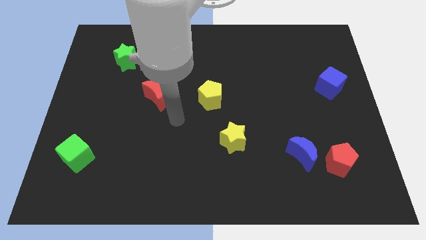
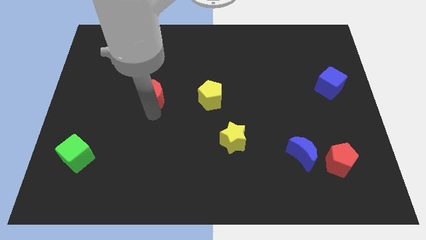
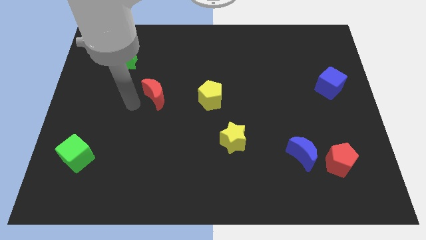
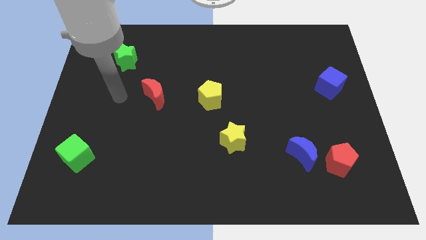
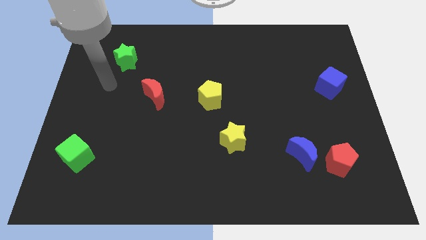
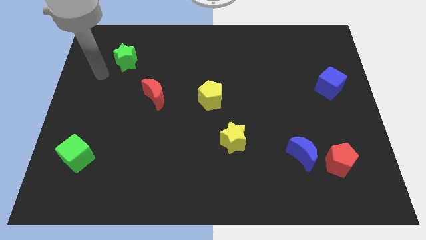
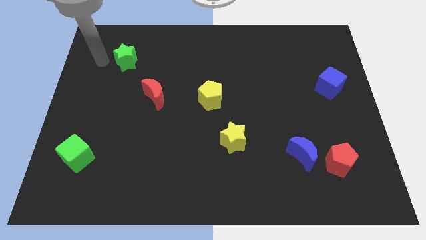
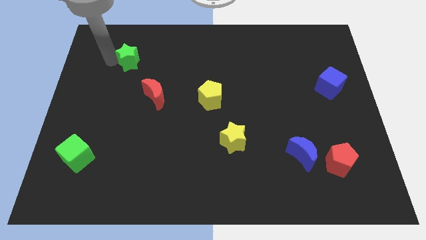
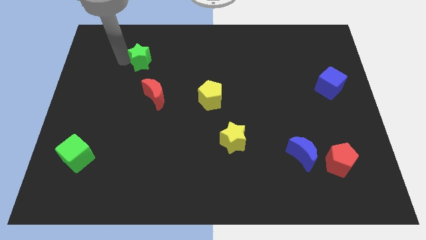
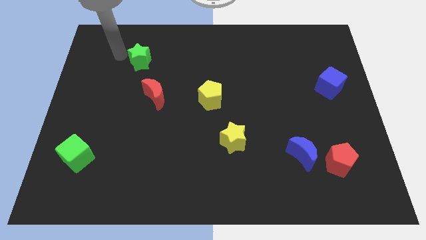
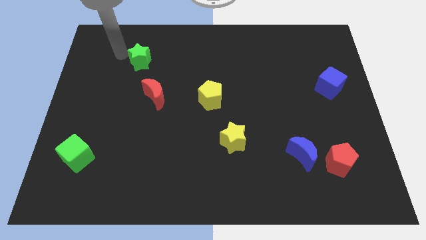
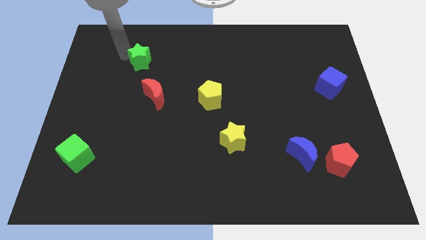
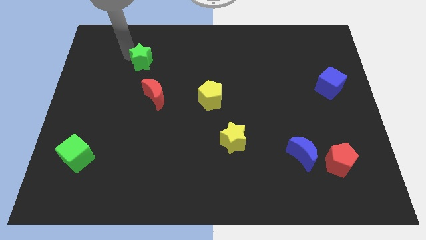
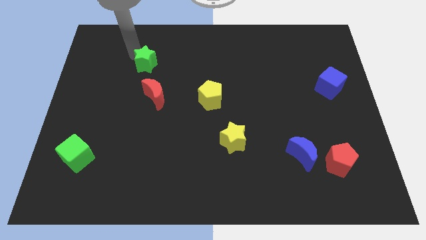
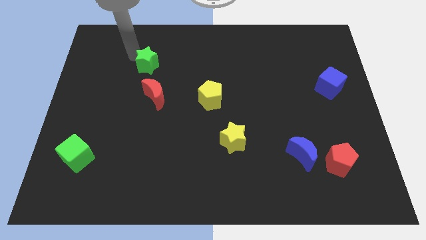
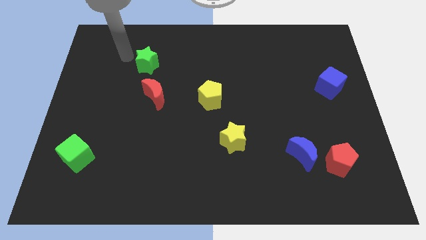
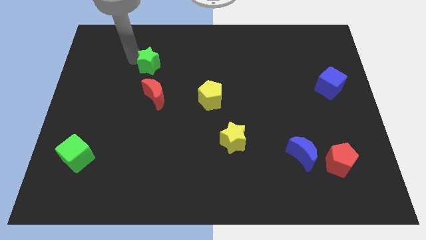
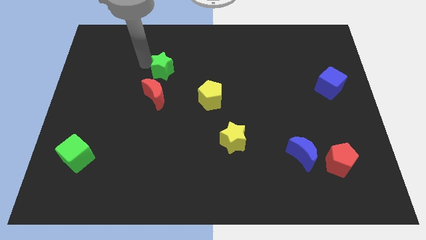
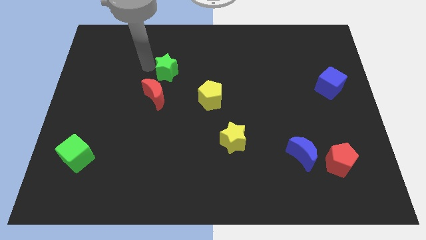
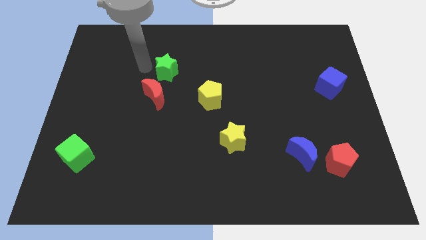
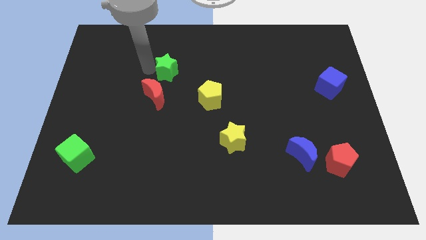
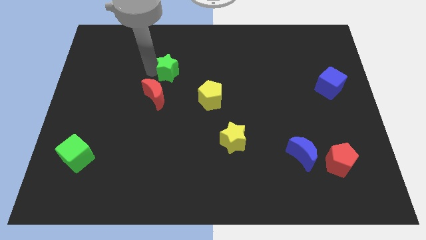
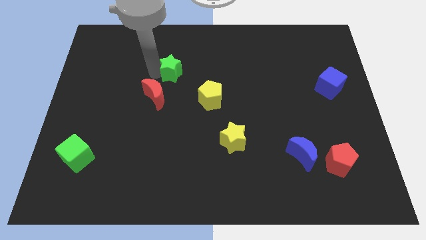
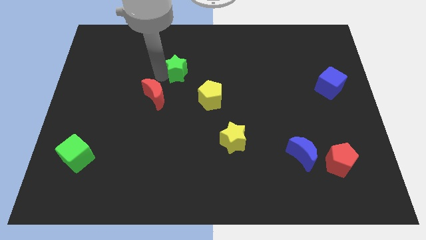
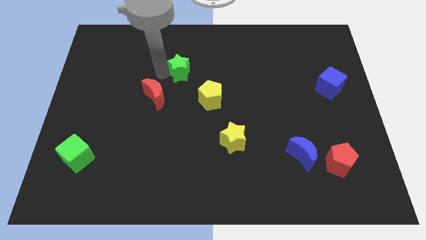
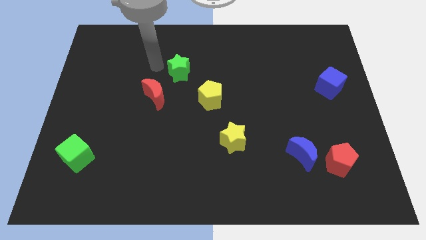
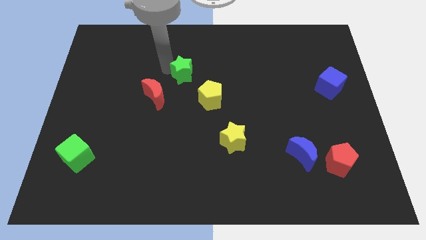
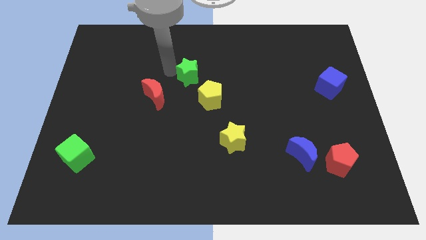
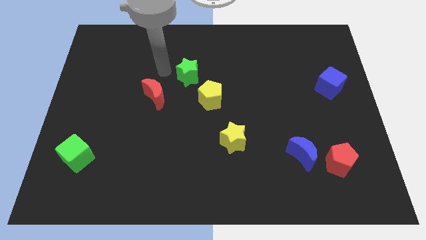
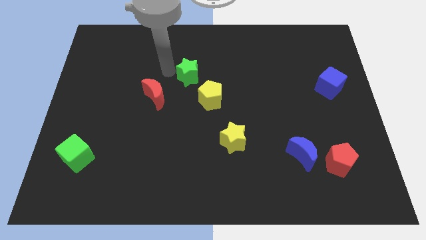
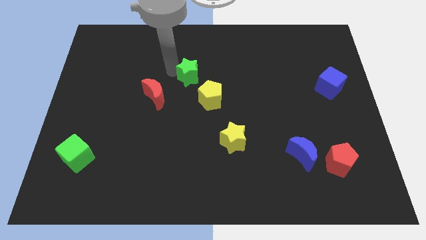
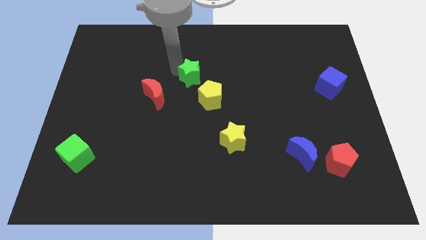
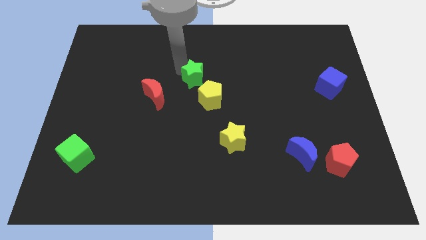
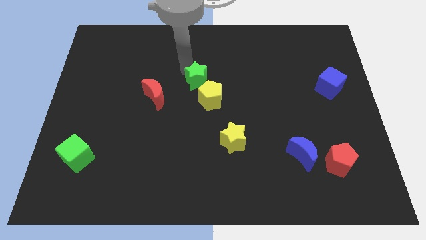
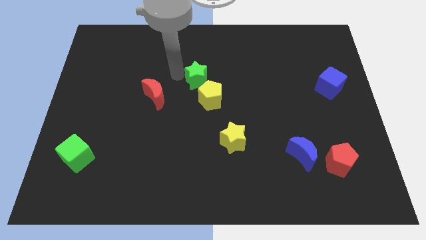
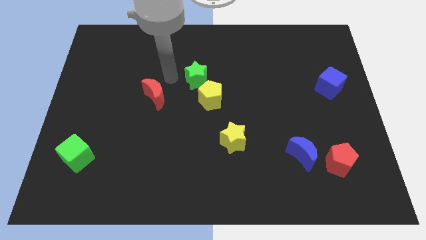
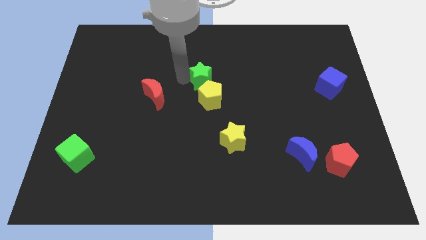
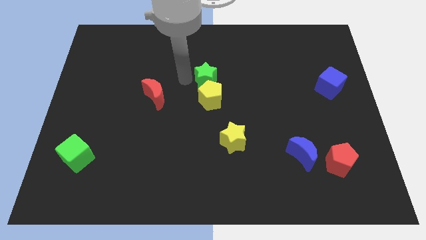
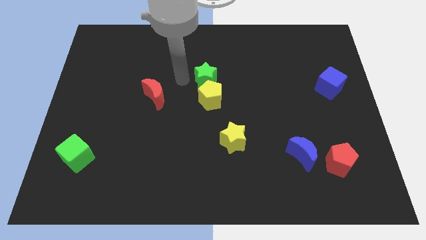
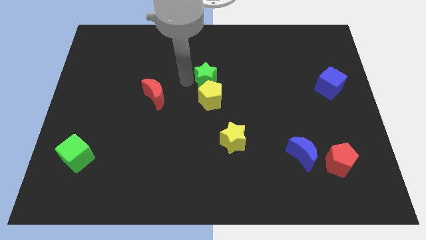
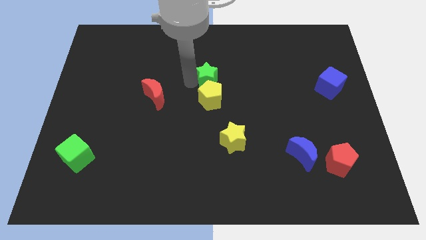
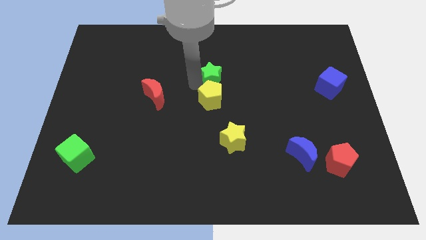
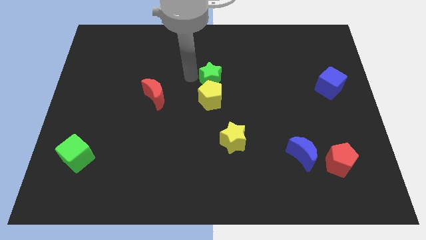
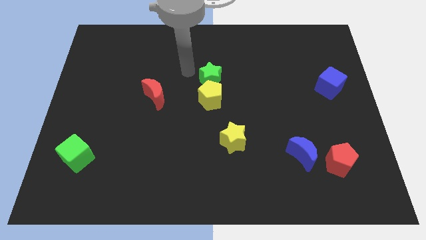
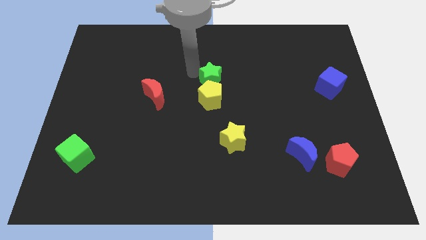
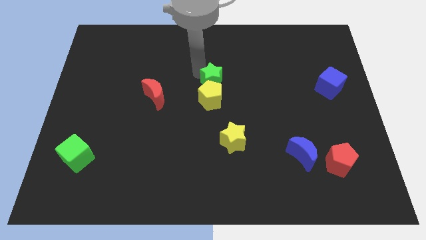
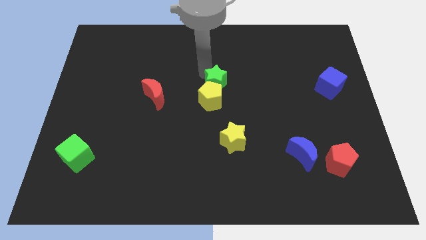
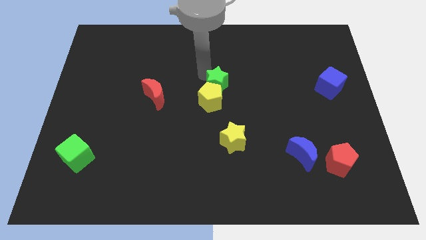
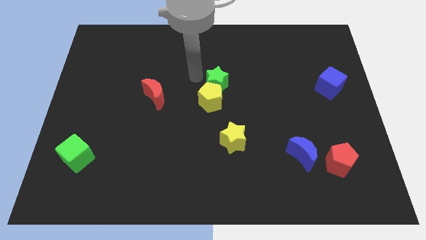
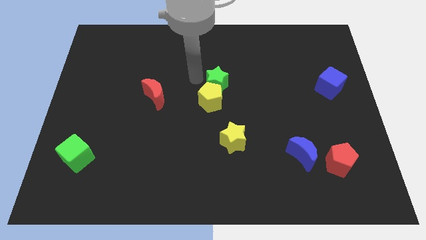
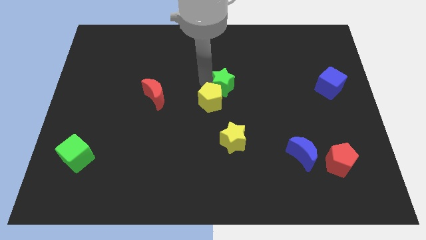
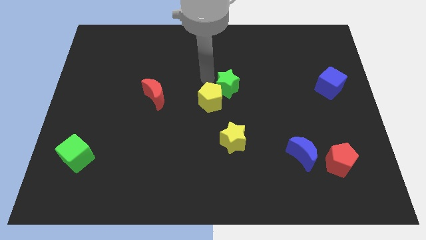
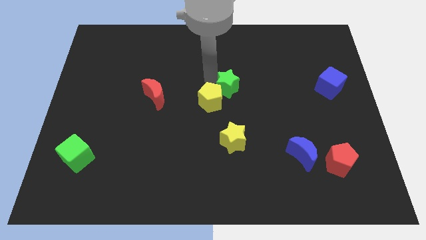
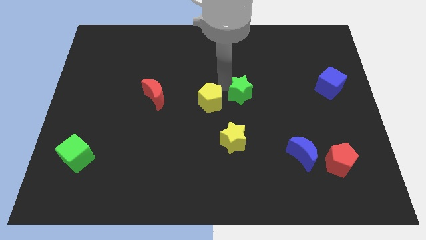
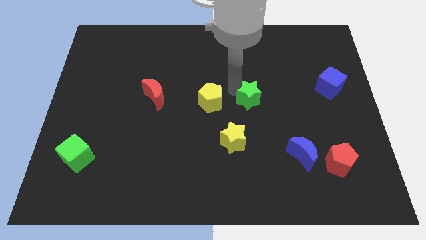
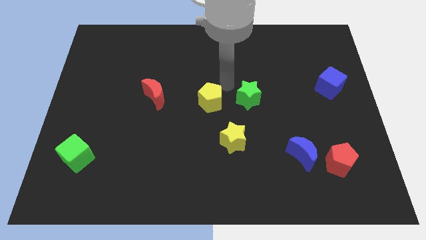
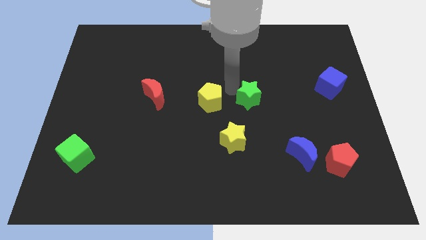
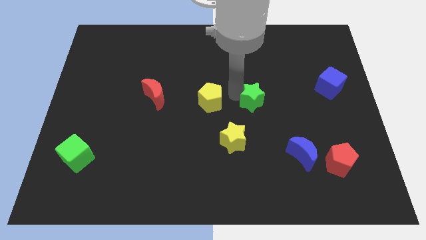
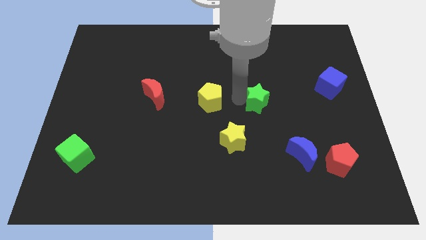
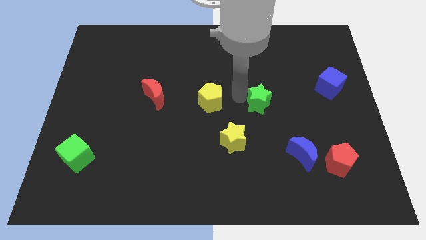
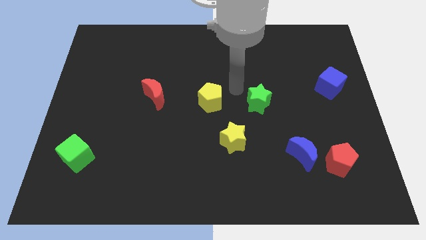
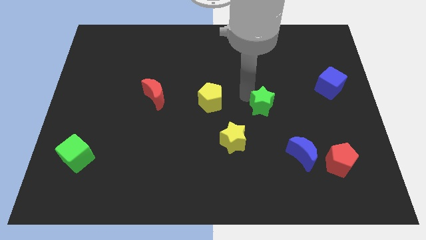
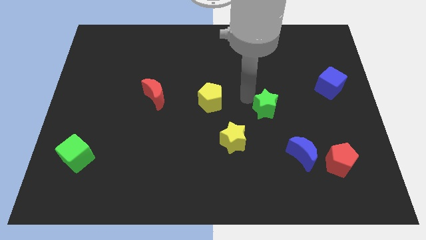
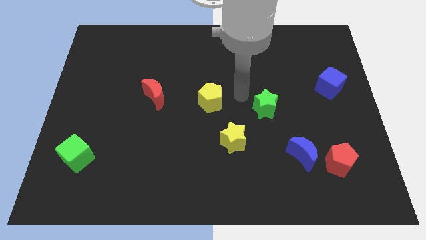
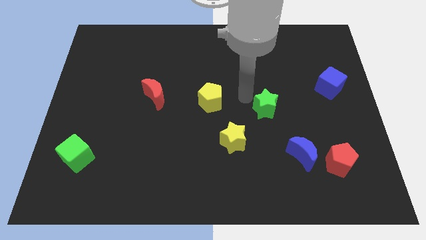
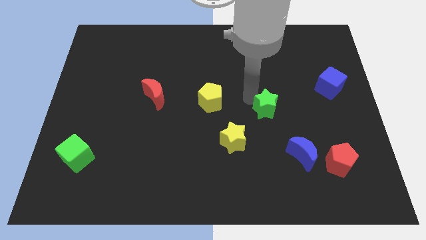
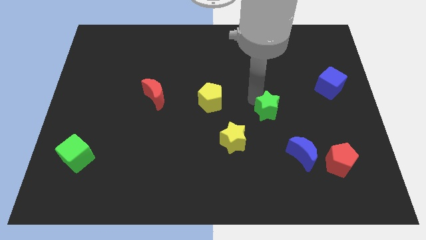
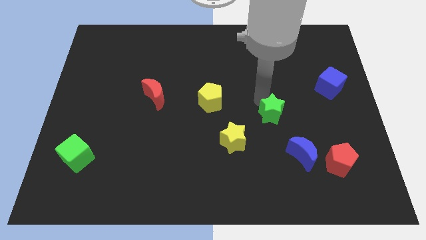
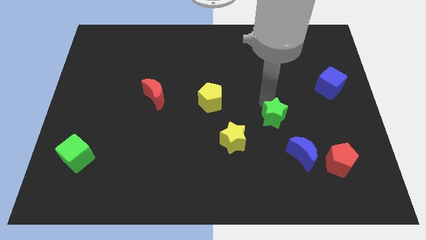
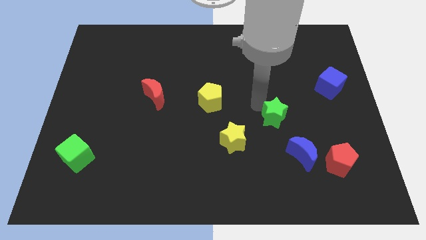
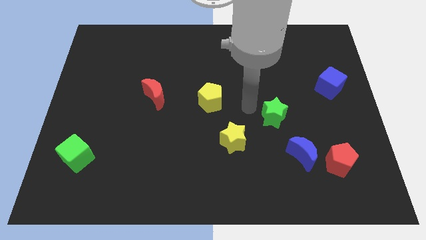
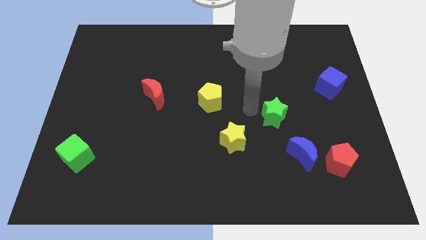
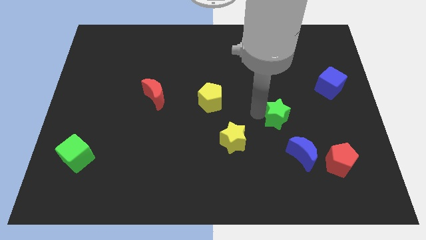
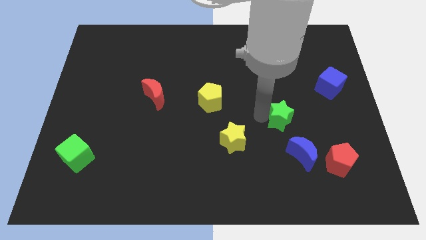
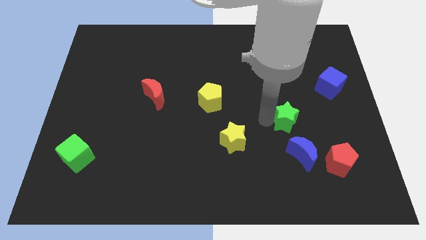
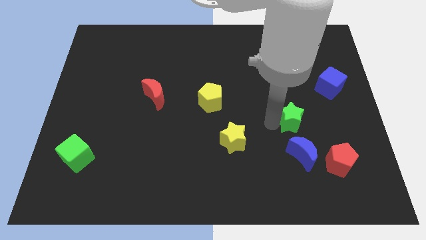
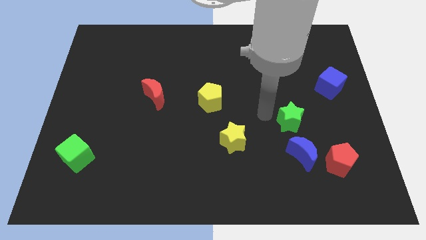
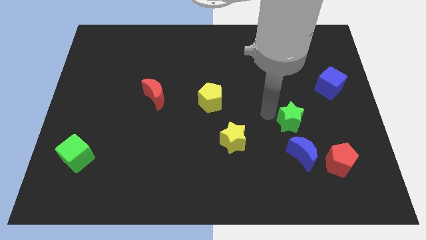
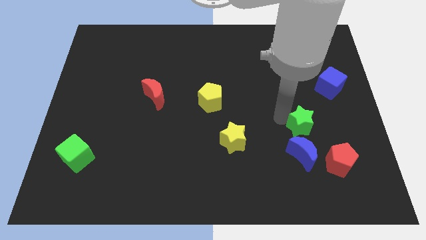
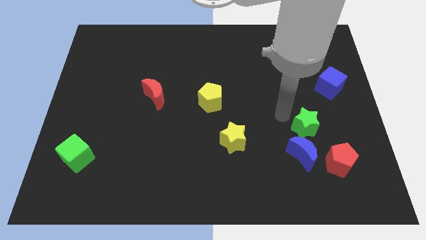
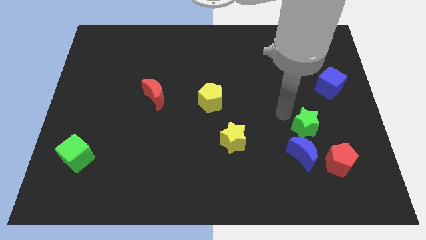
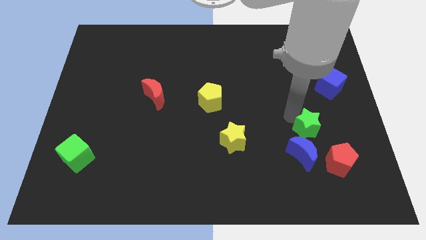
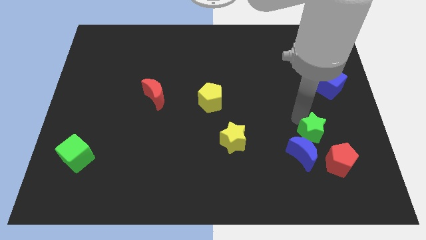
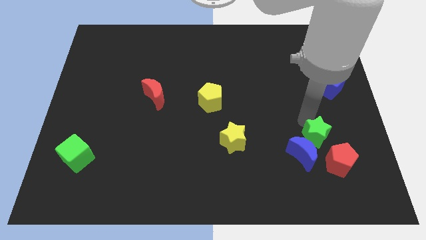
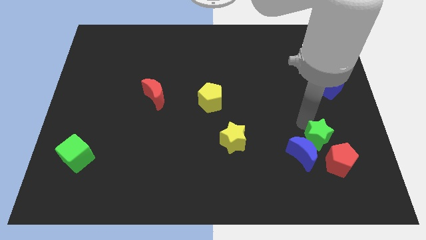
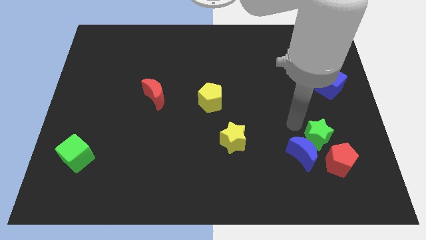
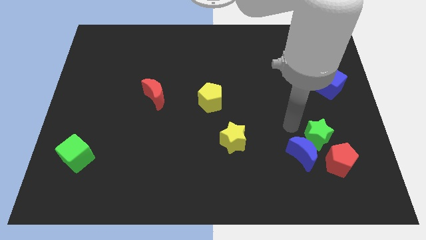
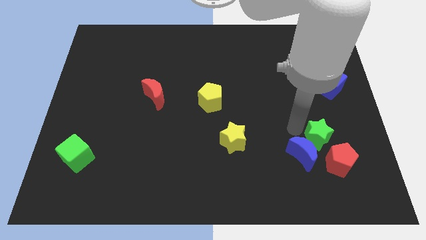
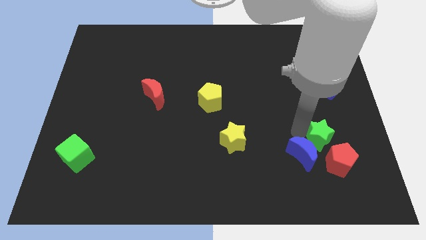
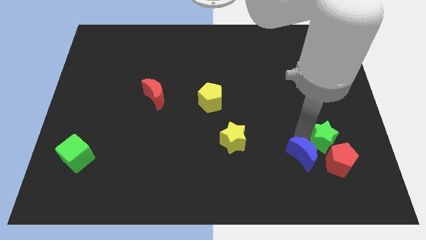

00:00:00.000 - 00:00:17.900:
push the green star towards the red pentagon
